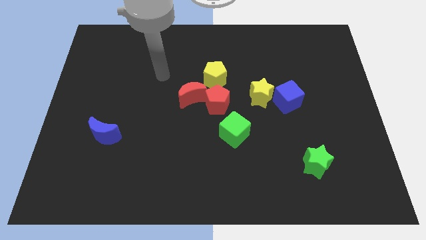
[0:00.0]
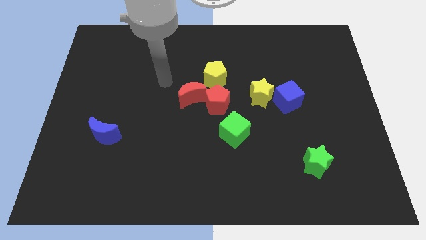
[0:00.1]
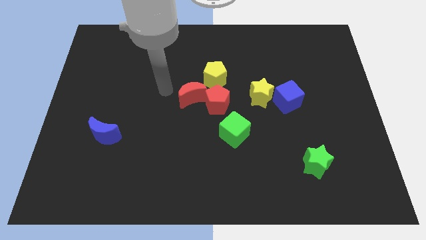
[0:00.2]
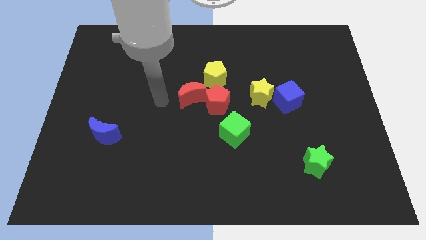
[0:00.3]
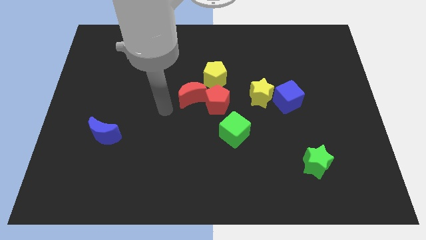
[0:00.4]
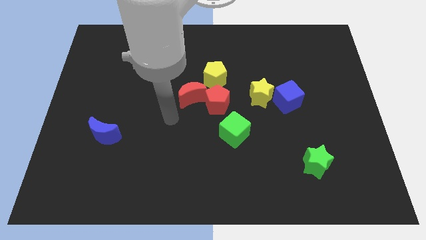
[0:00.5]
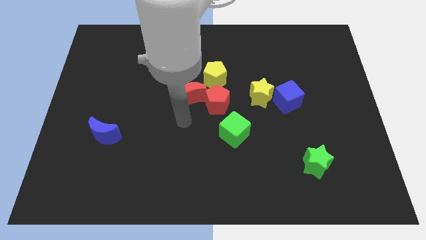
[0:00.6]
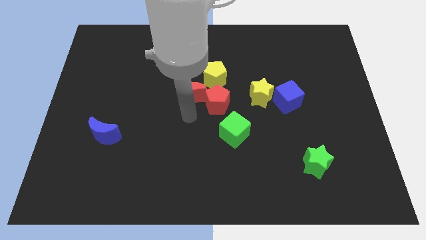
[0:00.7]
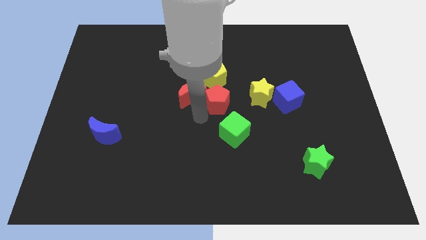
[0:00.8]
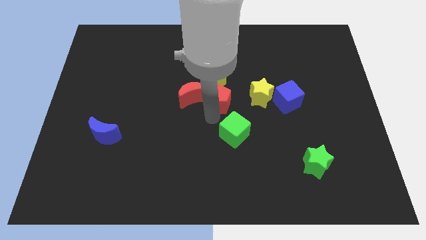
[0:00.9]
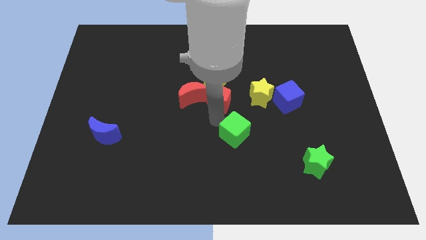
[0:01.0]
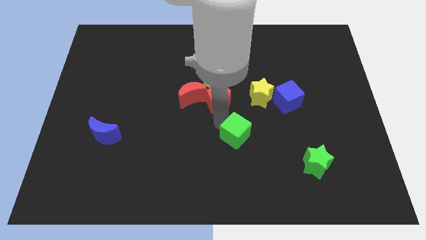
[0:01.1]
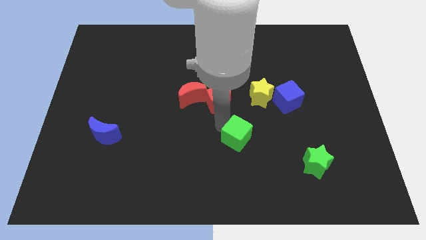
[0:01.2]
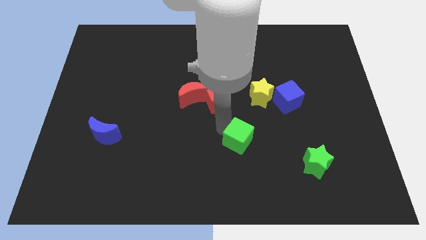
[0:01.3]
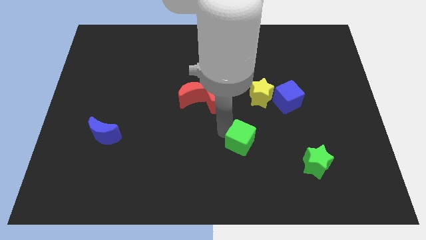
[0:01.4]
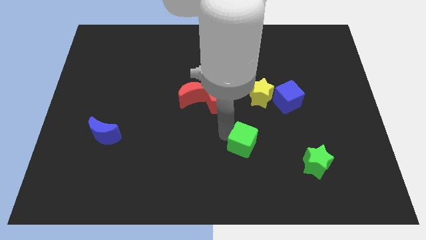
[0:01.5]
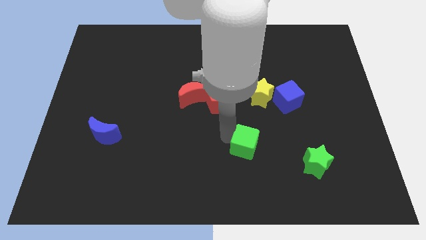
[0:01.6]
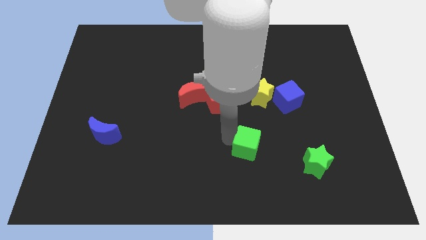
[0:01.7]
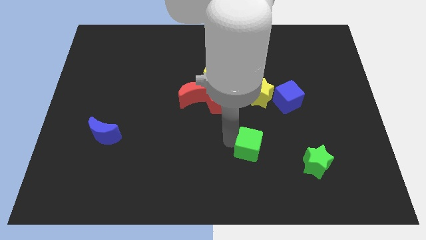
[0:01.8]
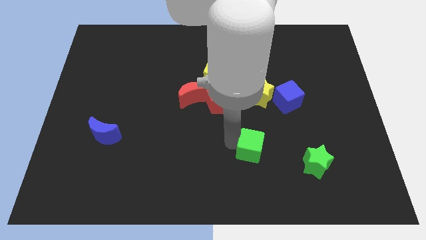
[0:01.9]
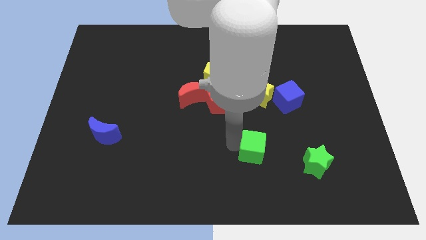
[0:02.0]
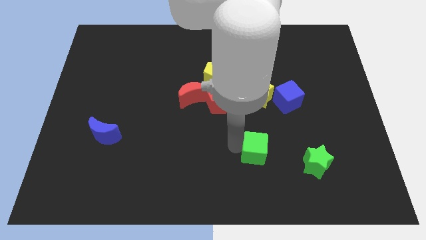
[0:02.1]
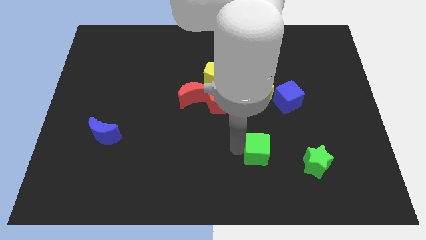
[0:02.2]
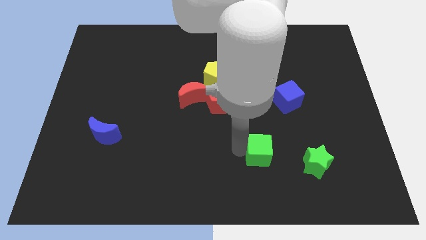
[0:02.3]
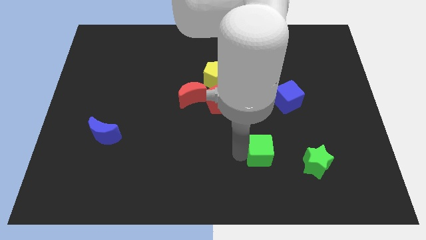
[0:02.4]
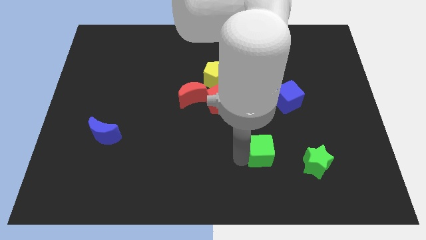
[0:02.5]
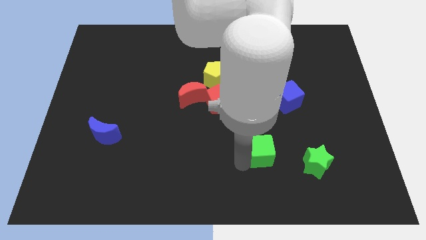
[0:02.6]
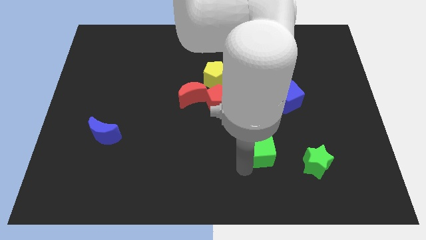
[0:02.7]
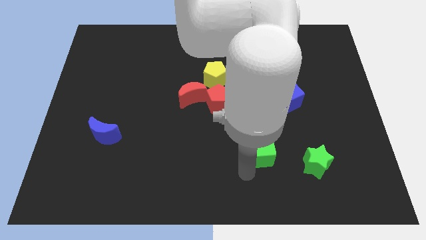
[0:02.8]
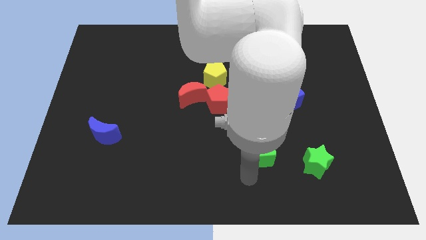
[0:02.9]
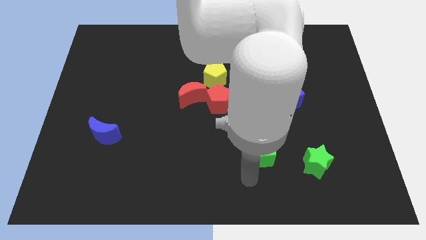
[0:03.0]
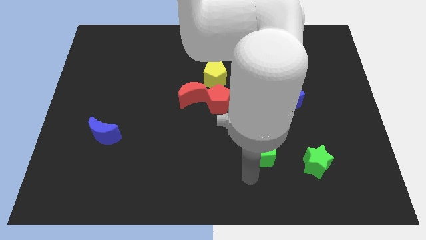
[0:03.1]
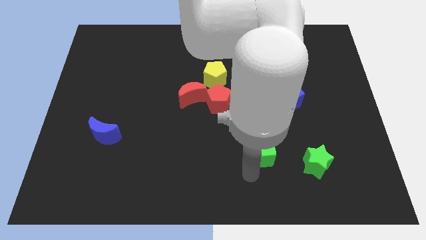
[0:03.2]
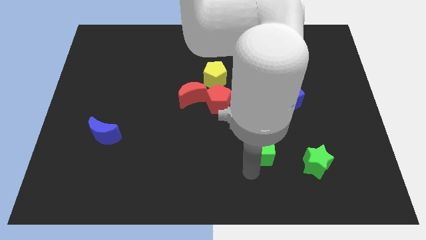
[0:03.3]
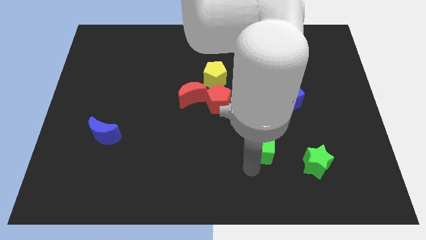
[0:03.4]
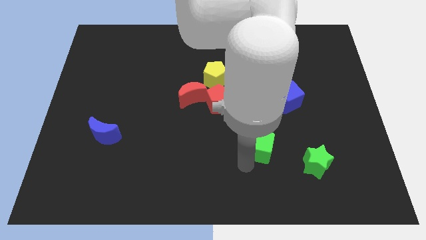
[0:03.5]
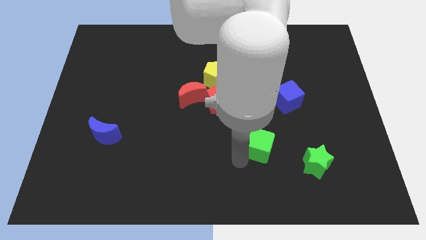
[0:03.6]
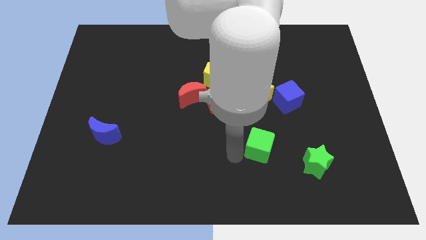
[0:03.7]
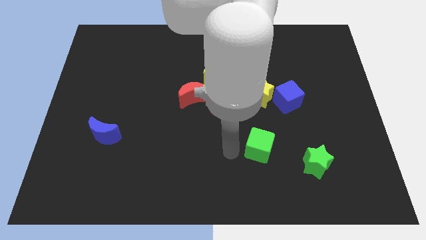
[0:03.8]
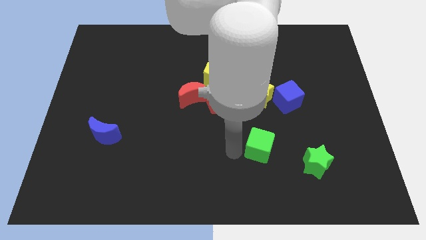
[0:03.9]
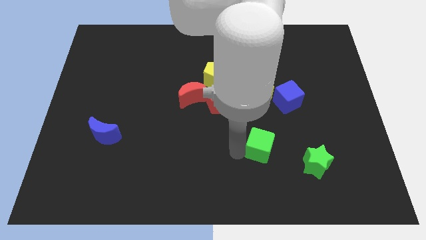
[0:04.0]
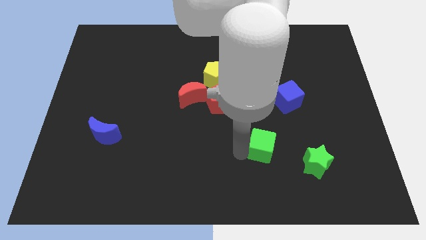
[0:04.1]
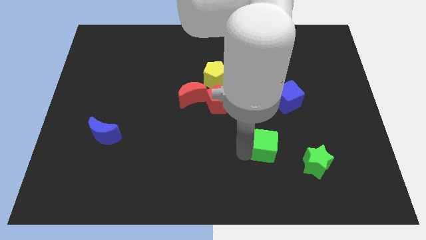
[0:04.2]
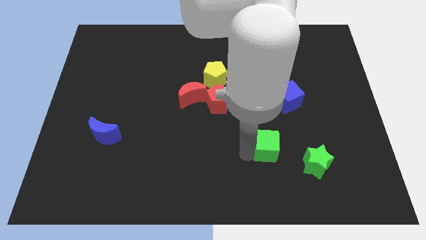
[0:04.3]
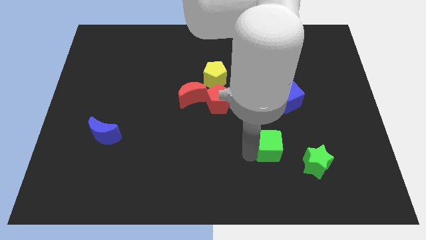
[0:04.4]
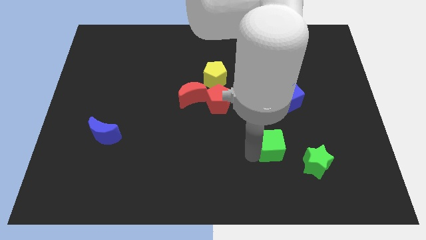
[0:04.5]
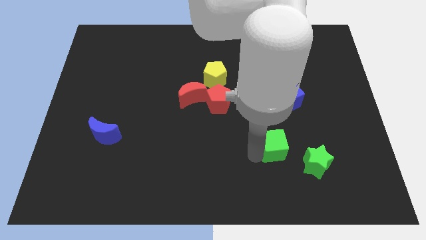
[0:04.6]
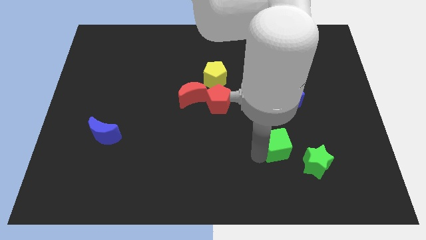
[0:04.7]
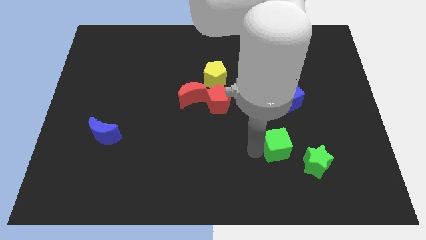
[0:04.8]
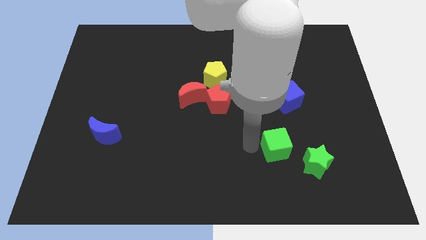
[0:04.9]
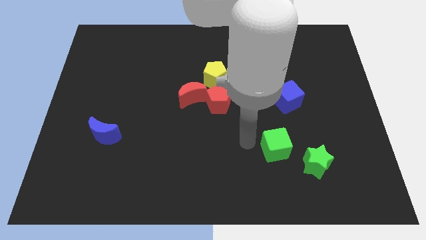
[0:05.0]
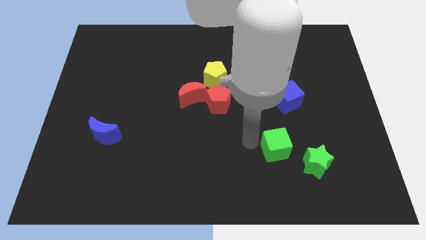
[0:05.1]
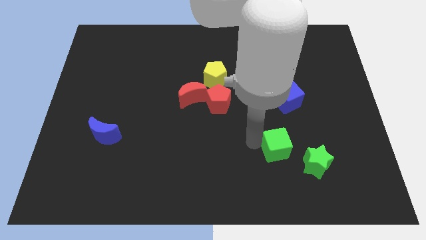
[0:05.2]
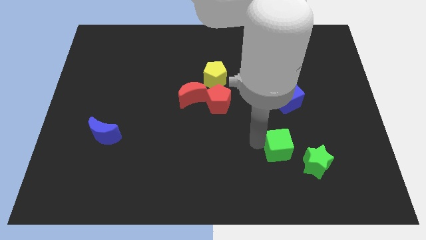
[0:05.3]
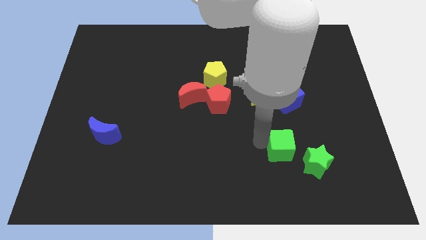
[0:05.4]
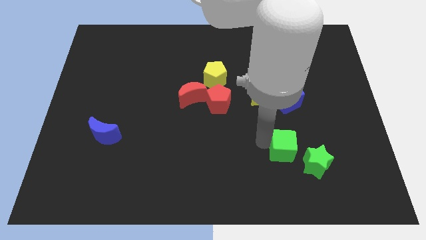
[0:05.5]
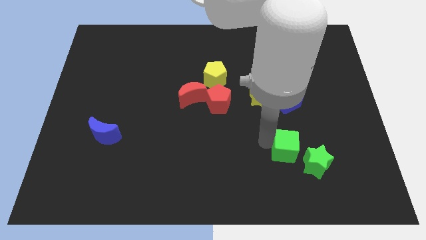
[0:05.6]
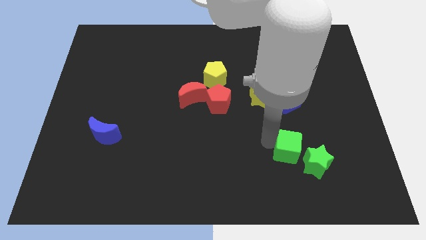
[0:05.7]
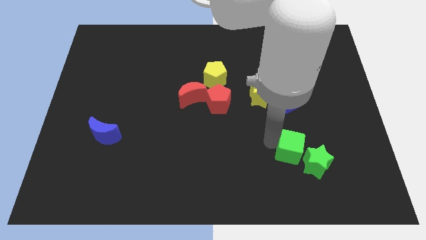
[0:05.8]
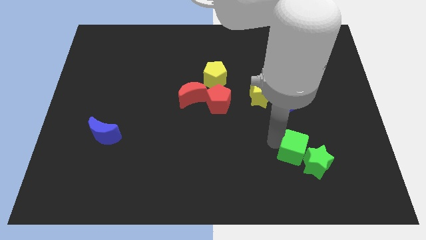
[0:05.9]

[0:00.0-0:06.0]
push the green cube close to the green star

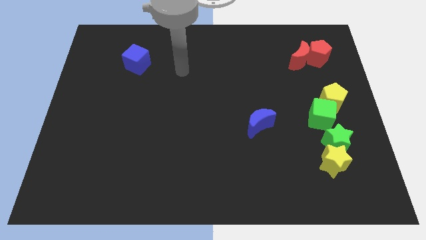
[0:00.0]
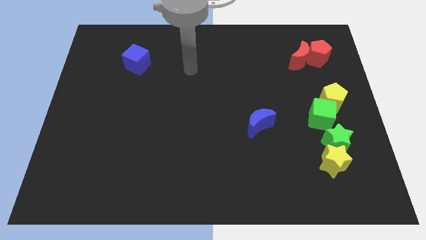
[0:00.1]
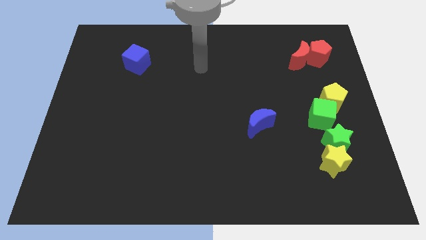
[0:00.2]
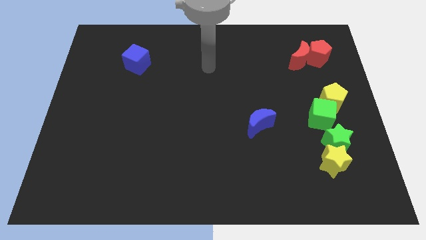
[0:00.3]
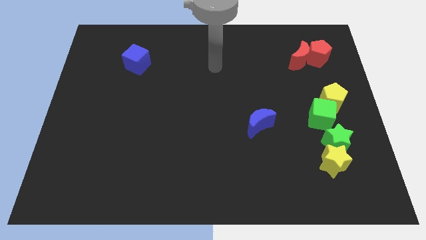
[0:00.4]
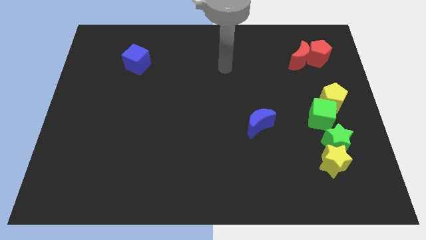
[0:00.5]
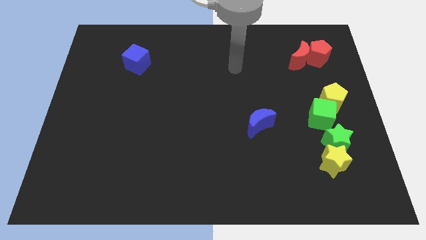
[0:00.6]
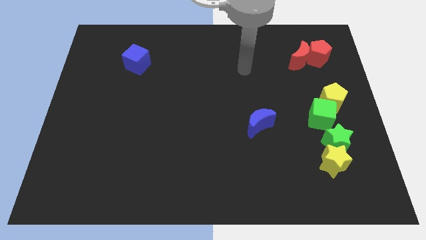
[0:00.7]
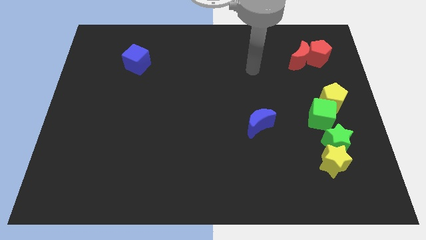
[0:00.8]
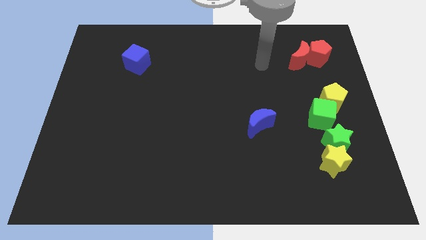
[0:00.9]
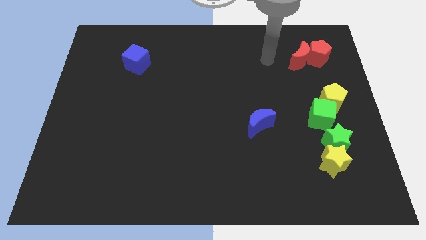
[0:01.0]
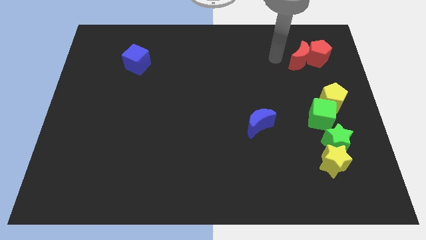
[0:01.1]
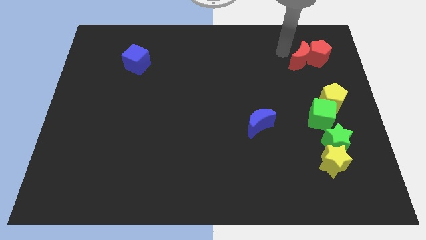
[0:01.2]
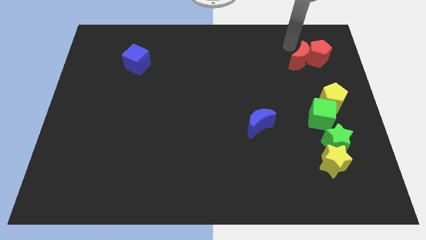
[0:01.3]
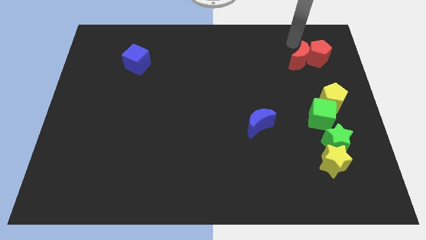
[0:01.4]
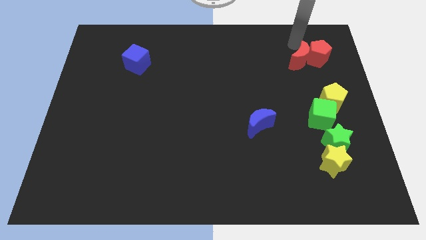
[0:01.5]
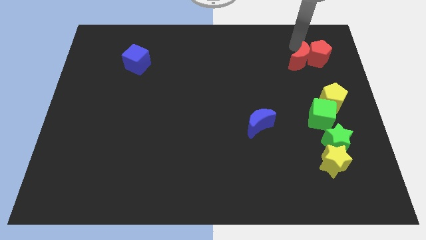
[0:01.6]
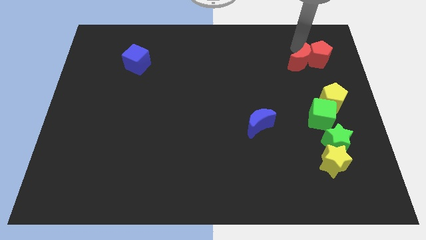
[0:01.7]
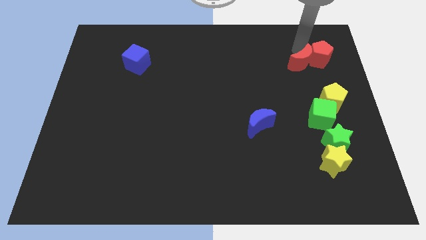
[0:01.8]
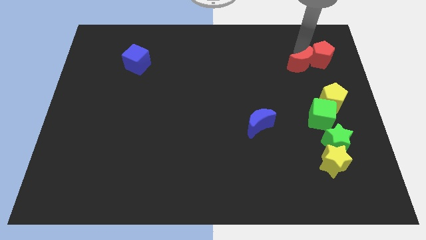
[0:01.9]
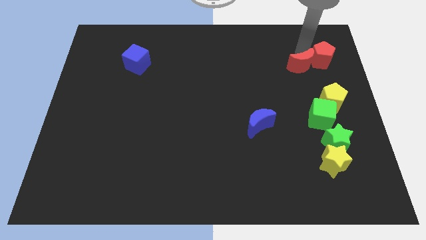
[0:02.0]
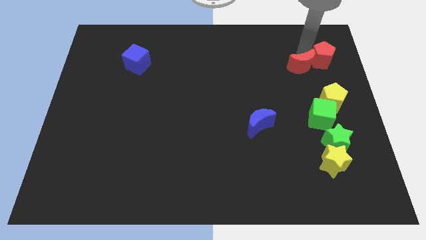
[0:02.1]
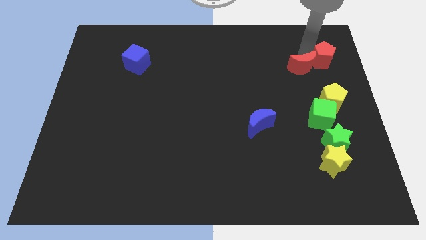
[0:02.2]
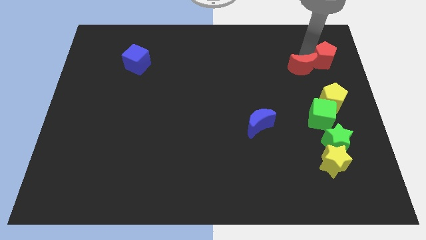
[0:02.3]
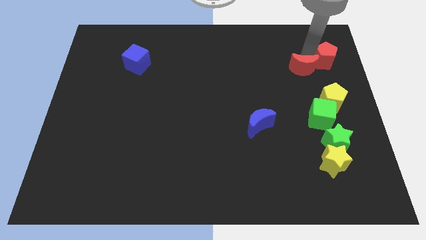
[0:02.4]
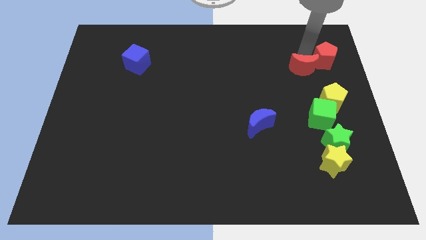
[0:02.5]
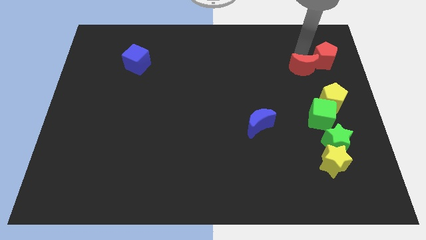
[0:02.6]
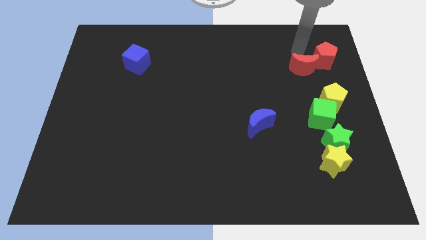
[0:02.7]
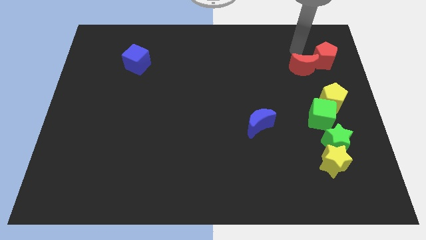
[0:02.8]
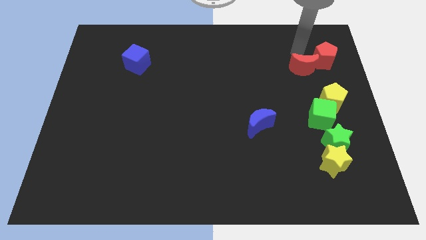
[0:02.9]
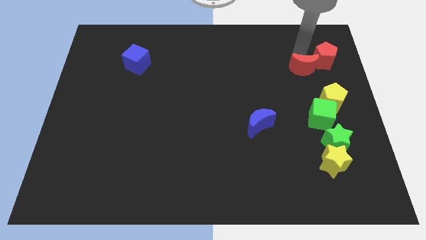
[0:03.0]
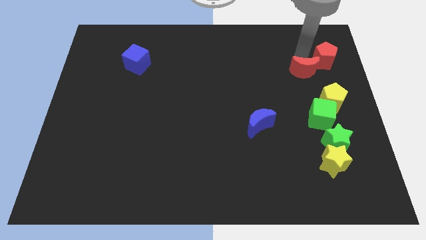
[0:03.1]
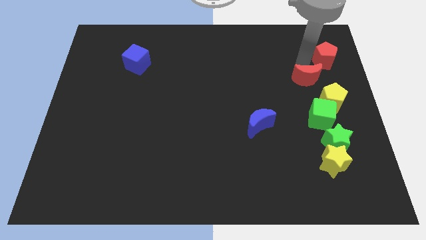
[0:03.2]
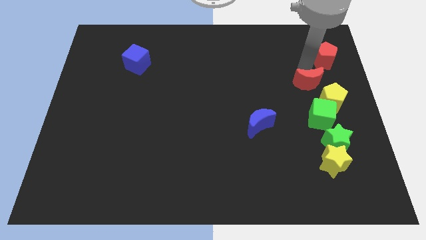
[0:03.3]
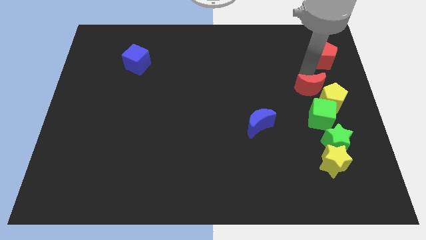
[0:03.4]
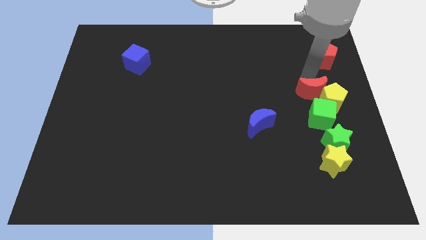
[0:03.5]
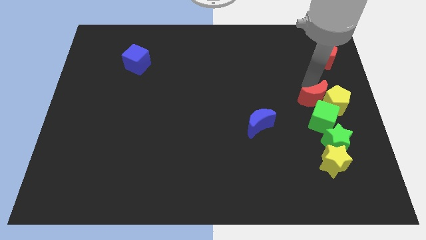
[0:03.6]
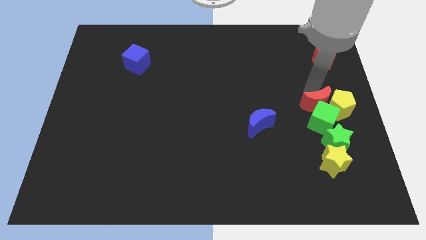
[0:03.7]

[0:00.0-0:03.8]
slide the red moon towards the green cube
